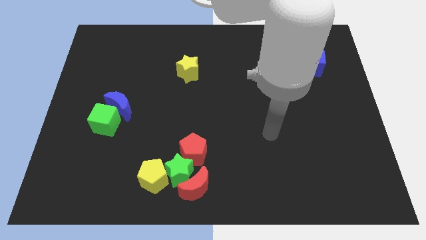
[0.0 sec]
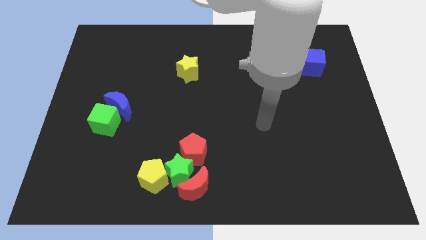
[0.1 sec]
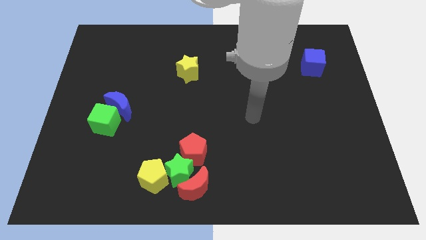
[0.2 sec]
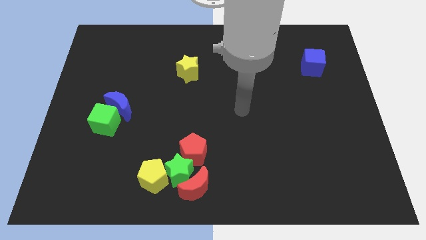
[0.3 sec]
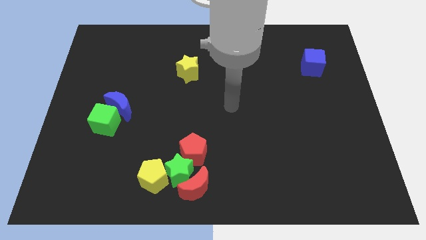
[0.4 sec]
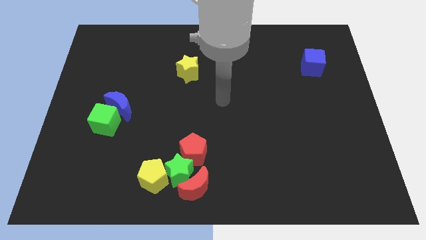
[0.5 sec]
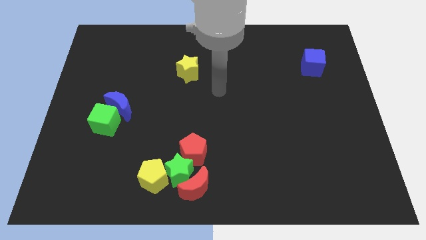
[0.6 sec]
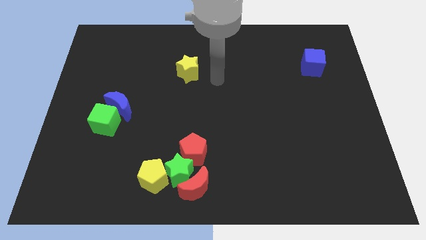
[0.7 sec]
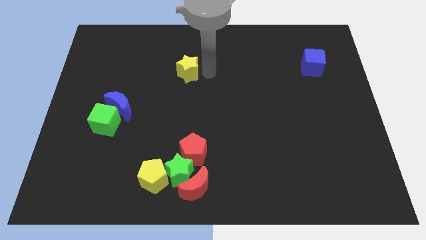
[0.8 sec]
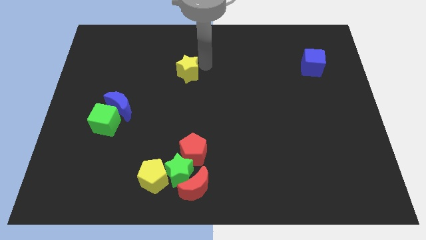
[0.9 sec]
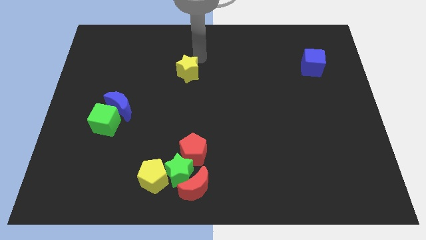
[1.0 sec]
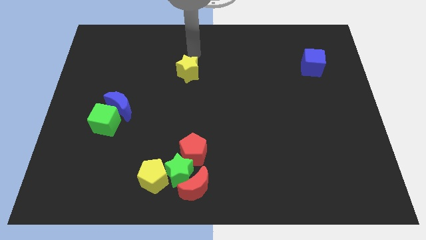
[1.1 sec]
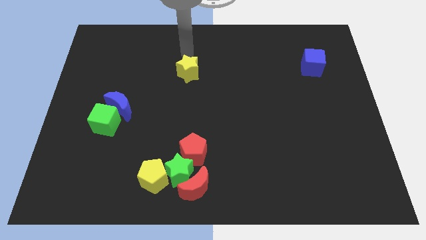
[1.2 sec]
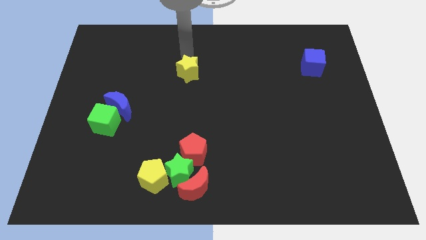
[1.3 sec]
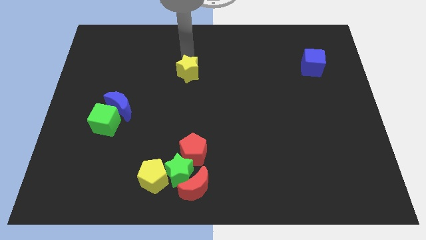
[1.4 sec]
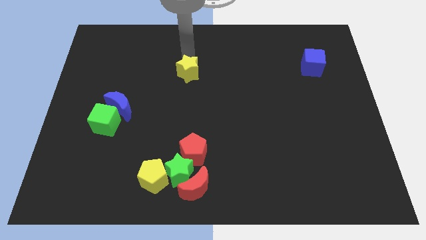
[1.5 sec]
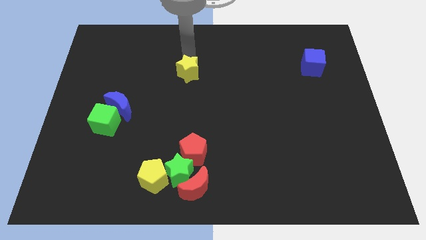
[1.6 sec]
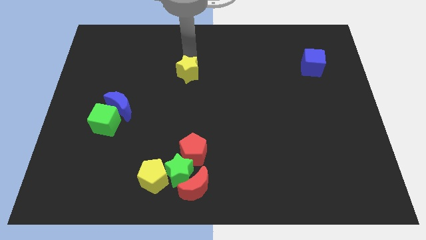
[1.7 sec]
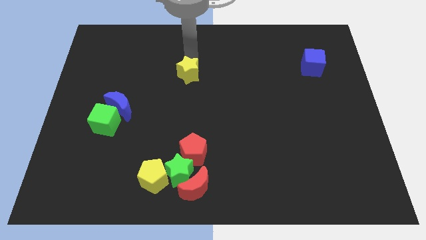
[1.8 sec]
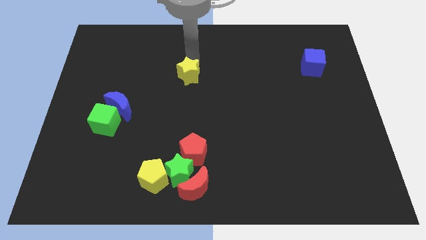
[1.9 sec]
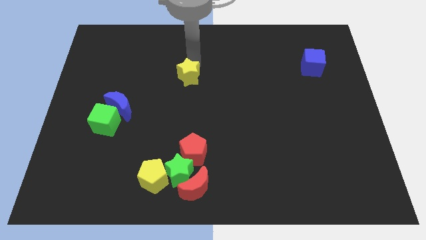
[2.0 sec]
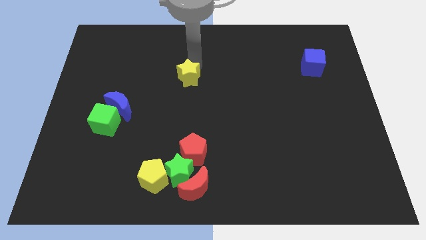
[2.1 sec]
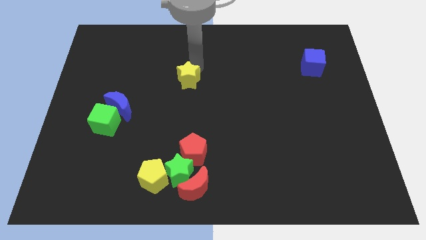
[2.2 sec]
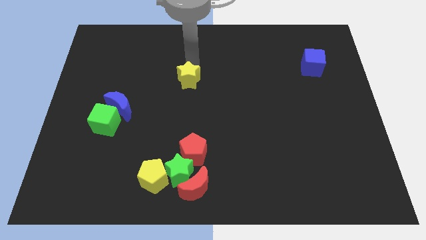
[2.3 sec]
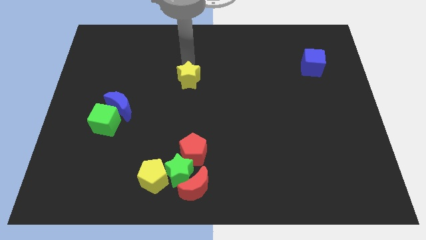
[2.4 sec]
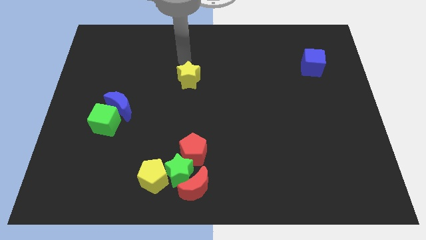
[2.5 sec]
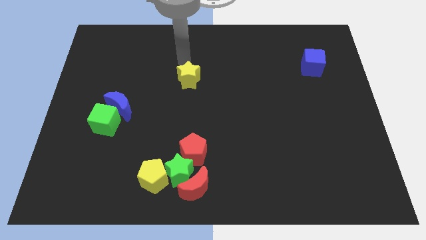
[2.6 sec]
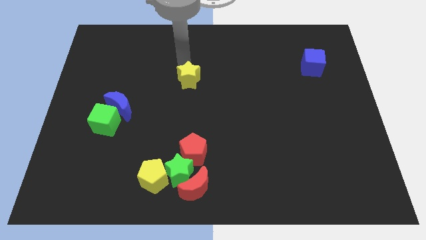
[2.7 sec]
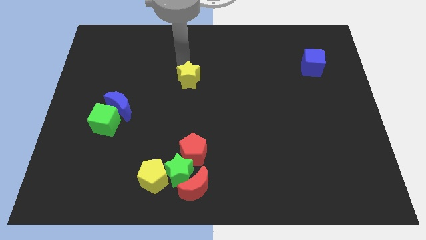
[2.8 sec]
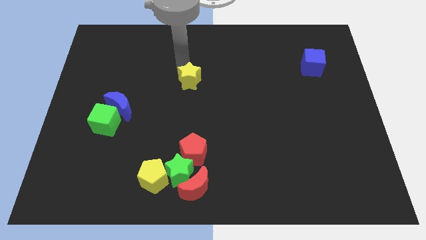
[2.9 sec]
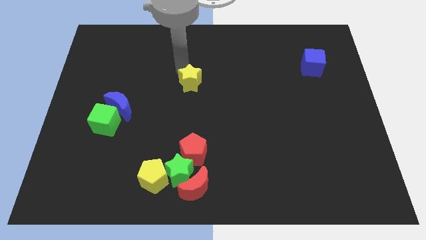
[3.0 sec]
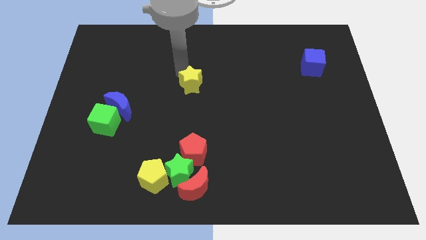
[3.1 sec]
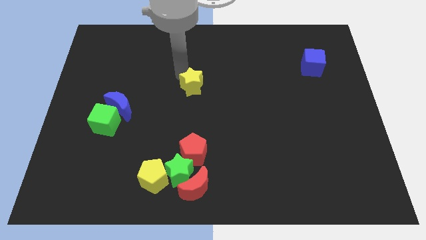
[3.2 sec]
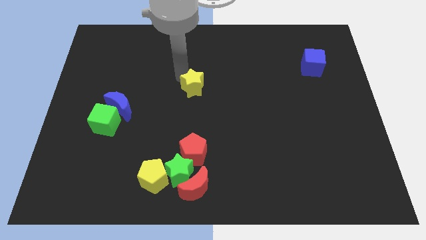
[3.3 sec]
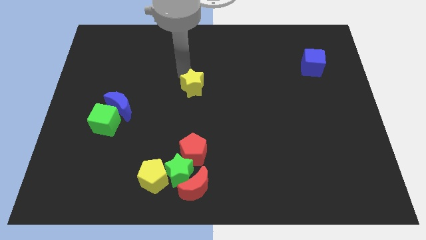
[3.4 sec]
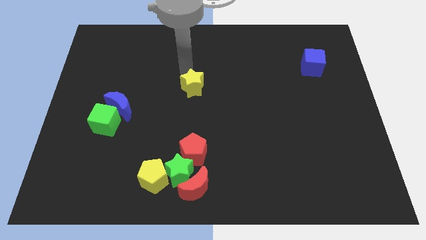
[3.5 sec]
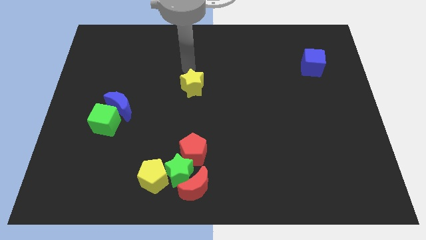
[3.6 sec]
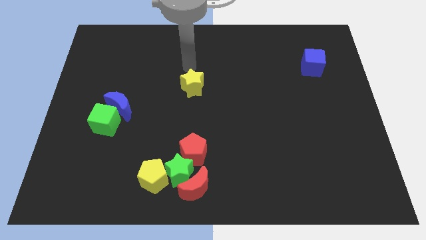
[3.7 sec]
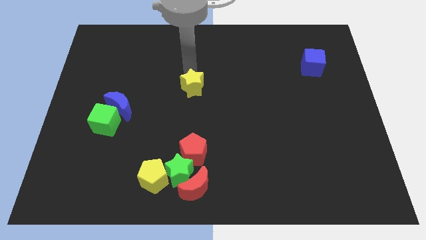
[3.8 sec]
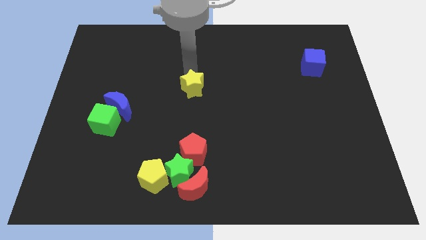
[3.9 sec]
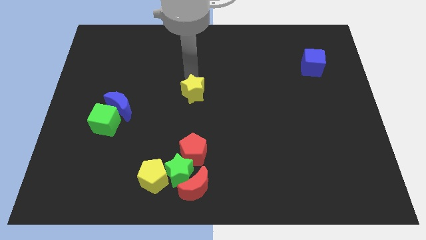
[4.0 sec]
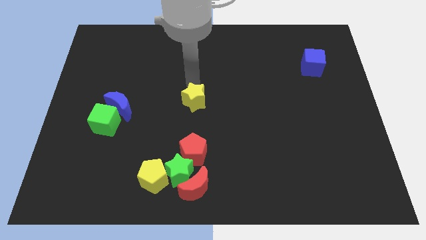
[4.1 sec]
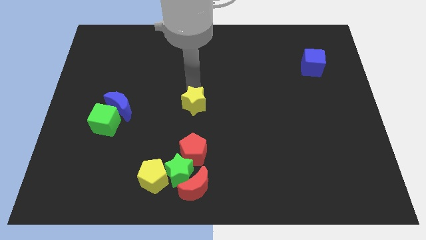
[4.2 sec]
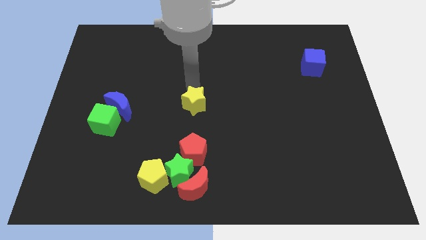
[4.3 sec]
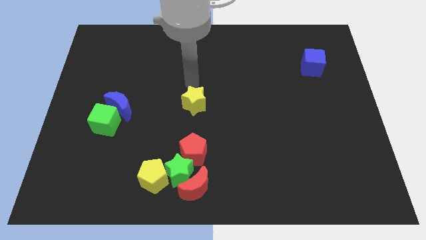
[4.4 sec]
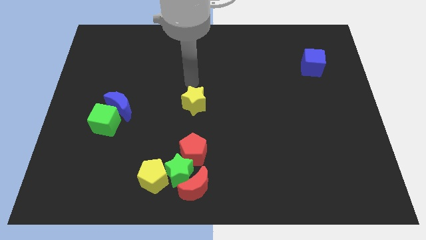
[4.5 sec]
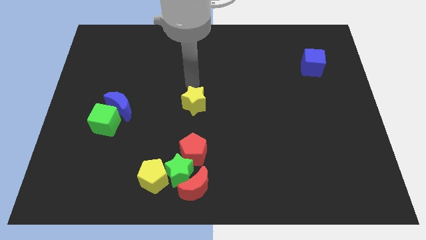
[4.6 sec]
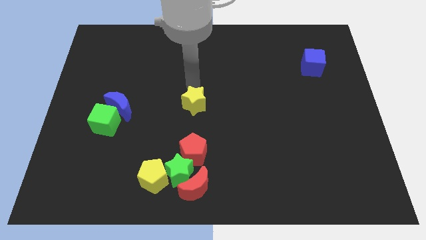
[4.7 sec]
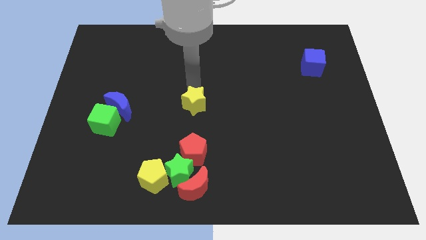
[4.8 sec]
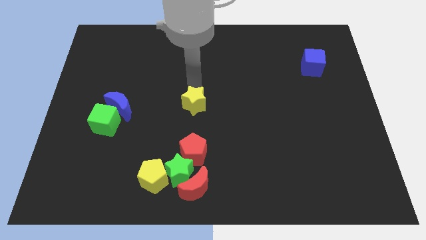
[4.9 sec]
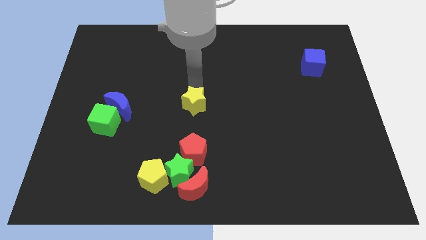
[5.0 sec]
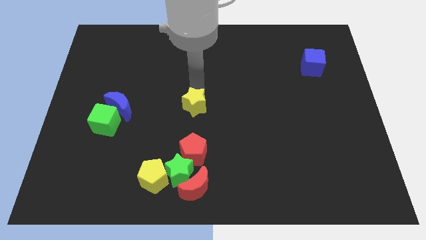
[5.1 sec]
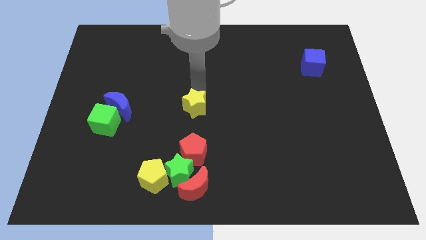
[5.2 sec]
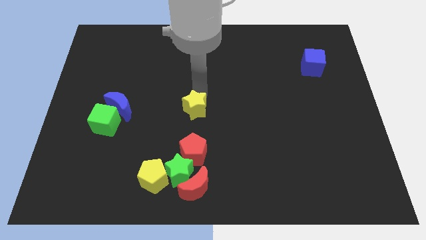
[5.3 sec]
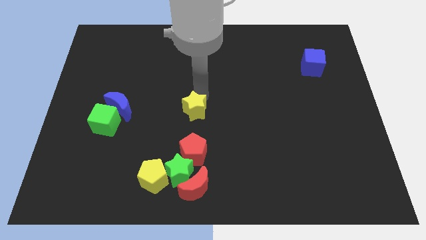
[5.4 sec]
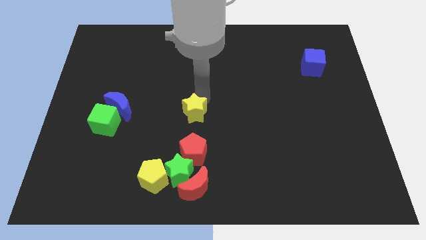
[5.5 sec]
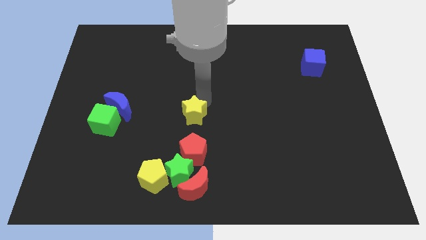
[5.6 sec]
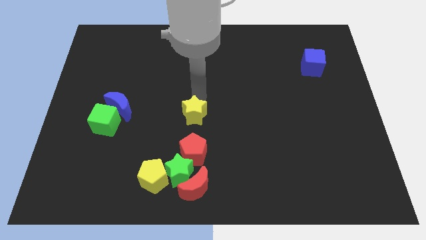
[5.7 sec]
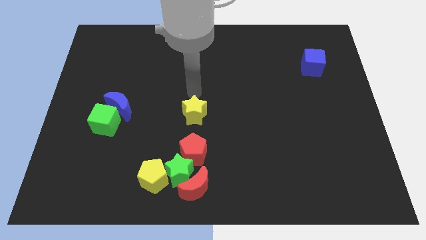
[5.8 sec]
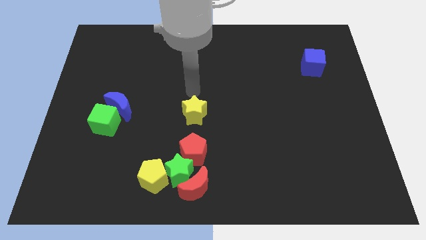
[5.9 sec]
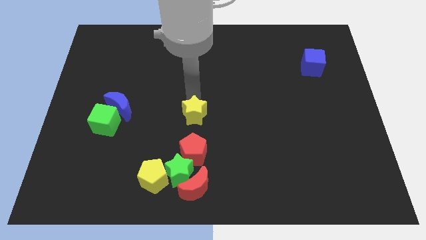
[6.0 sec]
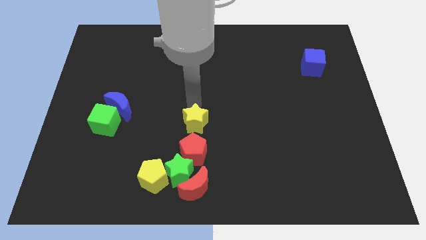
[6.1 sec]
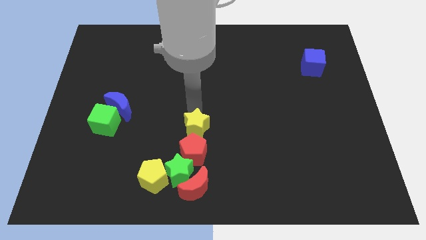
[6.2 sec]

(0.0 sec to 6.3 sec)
put the yellow star above the red moon
